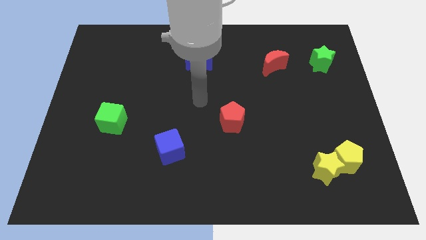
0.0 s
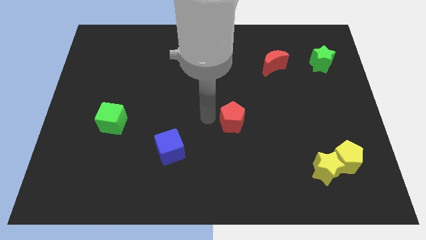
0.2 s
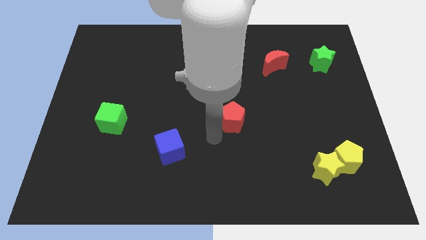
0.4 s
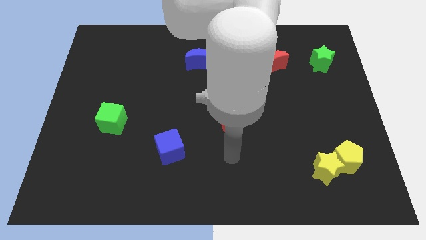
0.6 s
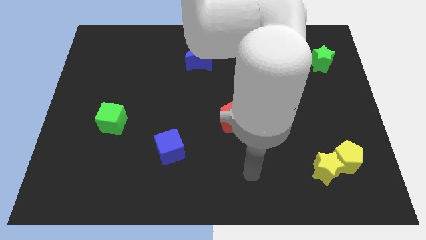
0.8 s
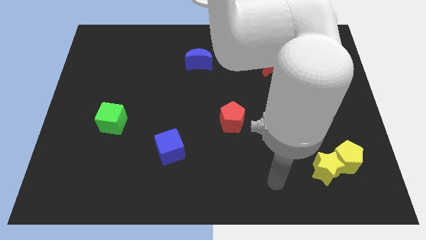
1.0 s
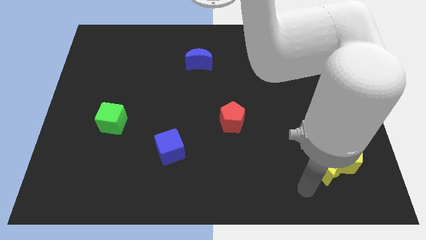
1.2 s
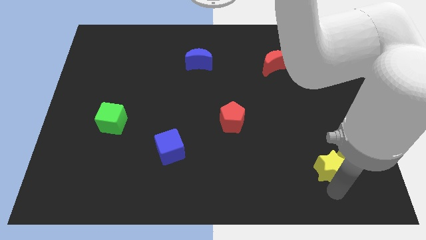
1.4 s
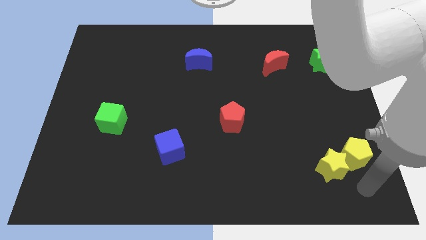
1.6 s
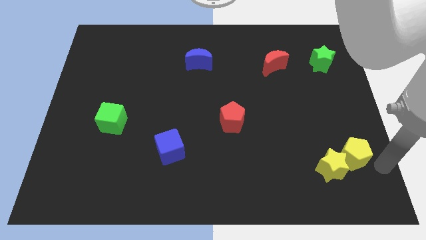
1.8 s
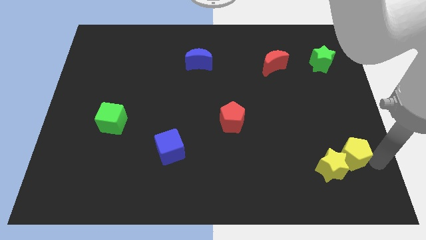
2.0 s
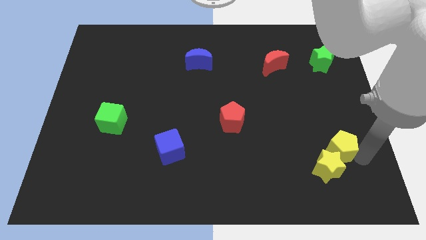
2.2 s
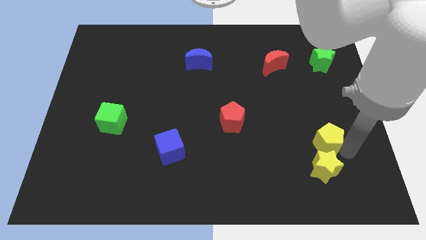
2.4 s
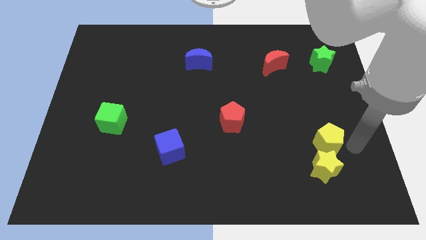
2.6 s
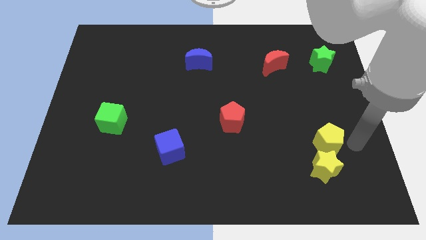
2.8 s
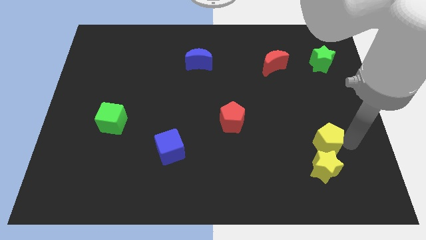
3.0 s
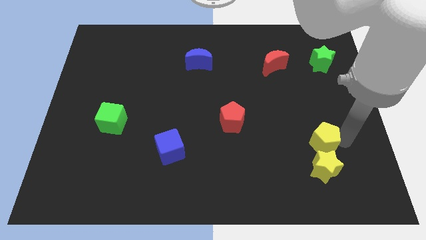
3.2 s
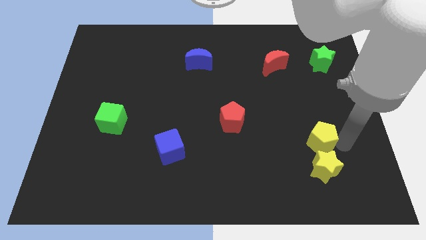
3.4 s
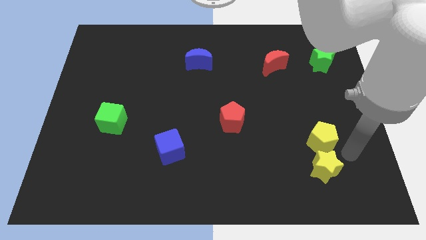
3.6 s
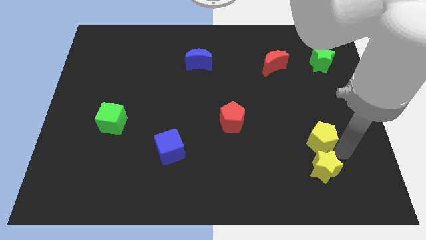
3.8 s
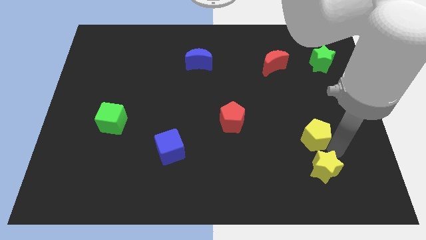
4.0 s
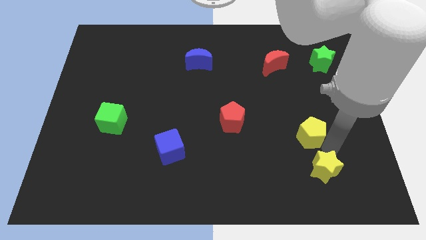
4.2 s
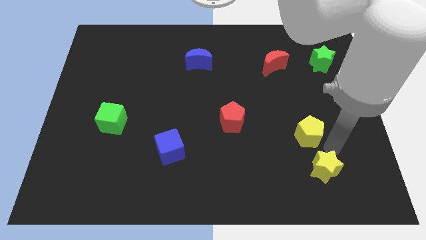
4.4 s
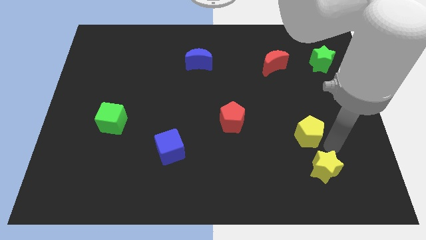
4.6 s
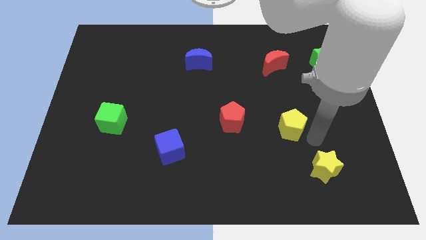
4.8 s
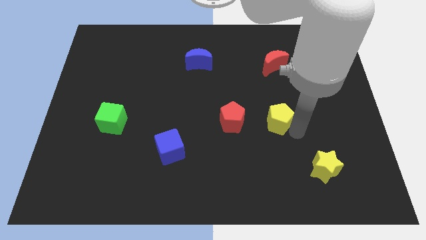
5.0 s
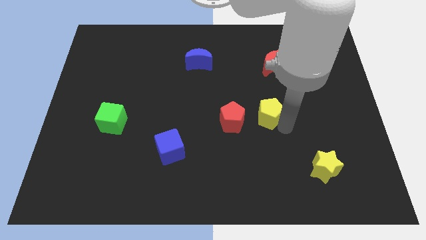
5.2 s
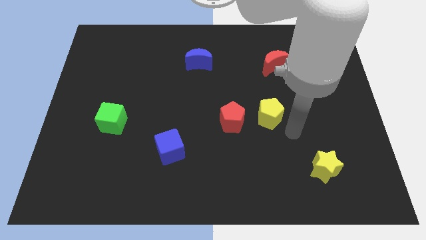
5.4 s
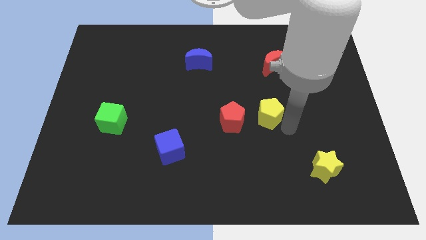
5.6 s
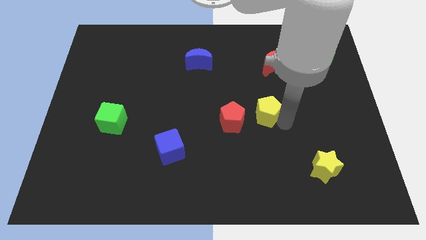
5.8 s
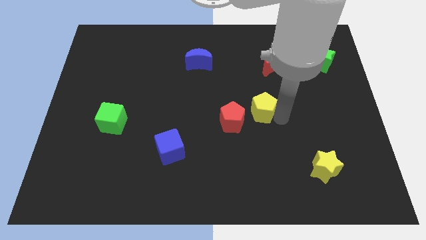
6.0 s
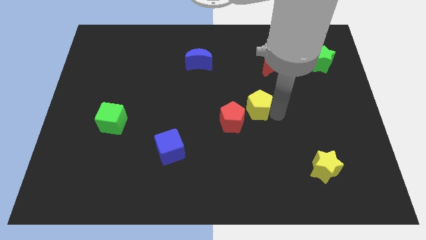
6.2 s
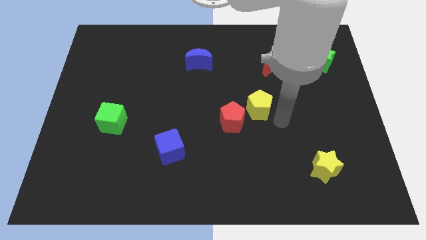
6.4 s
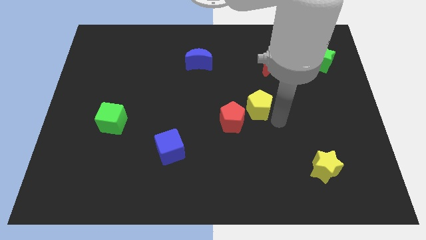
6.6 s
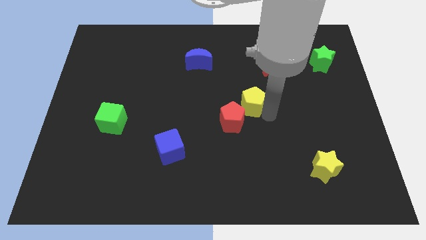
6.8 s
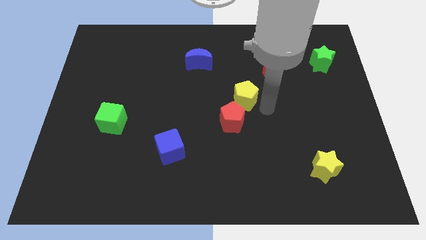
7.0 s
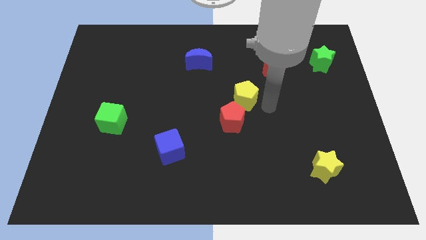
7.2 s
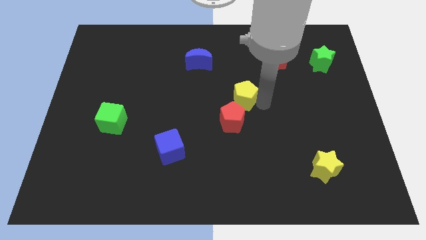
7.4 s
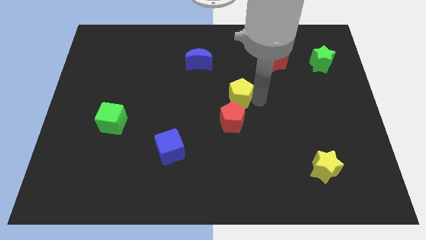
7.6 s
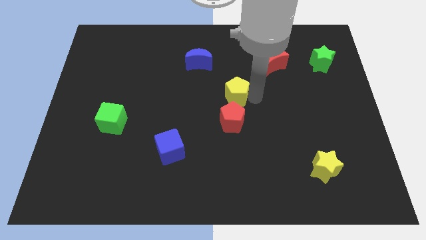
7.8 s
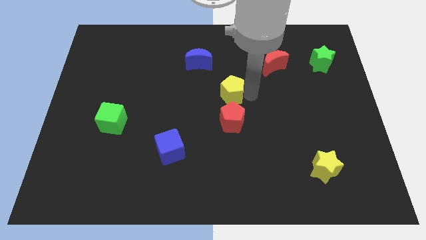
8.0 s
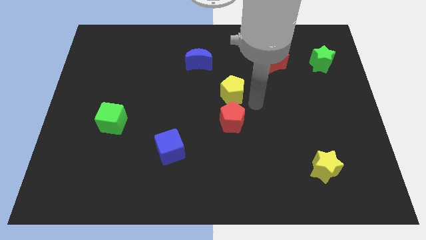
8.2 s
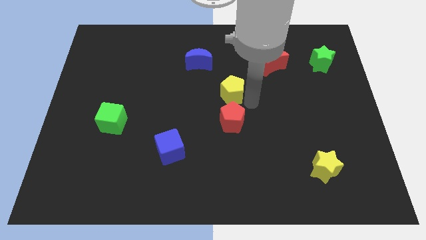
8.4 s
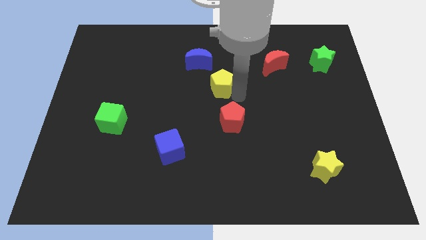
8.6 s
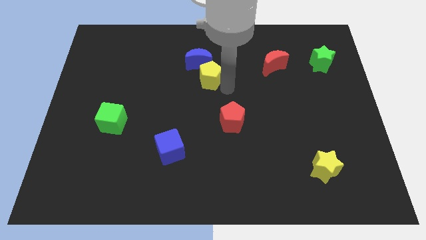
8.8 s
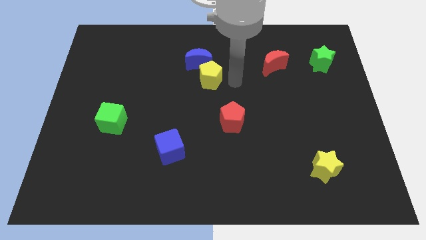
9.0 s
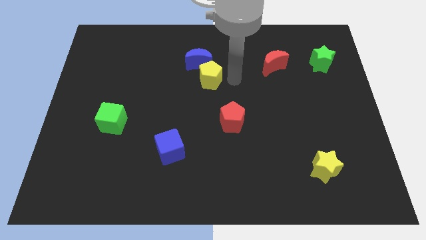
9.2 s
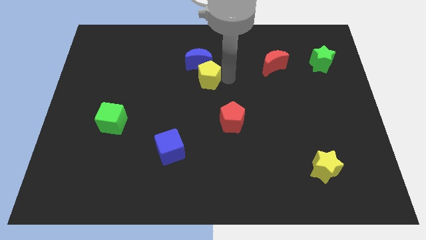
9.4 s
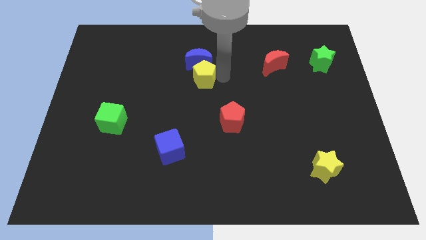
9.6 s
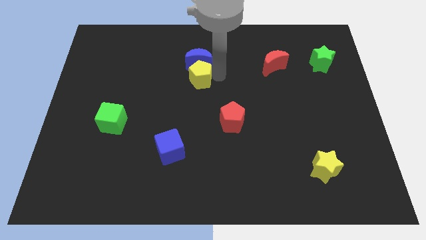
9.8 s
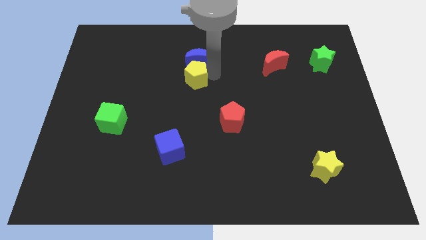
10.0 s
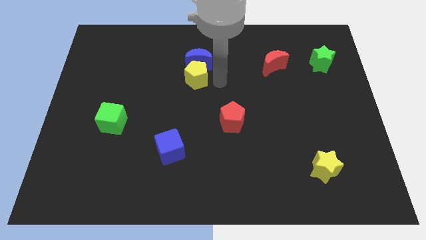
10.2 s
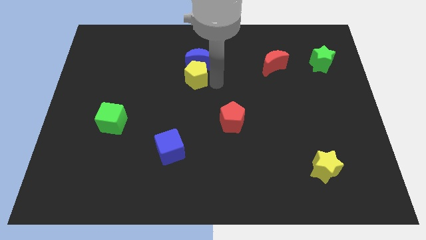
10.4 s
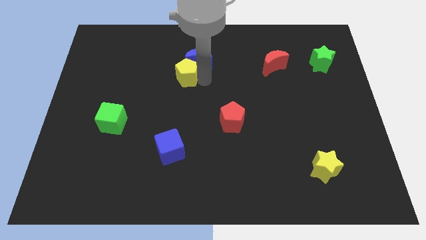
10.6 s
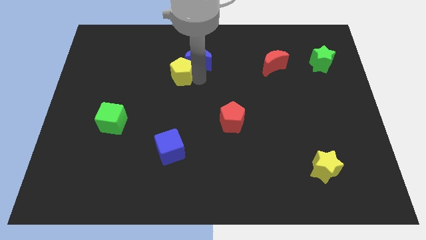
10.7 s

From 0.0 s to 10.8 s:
move the yellow pentagon left of the blue moon

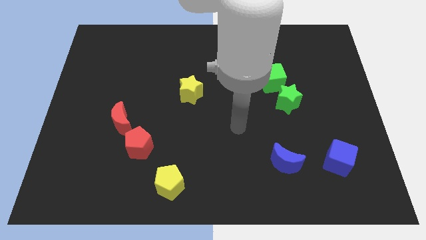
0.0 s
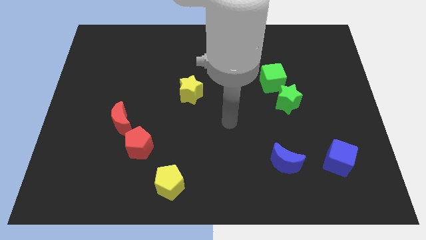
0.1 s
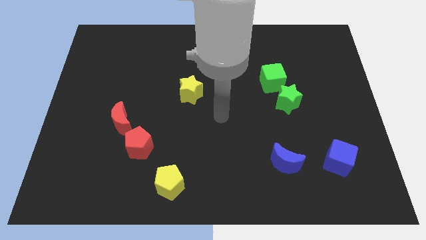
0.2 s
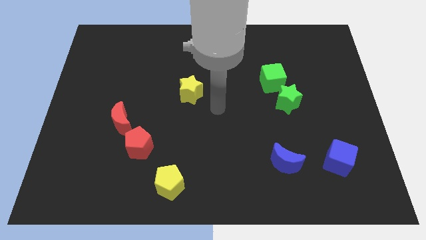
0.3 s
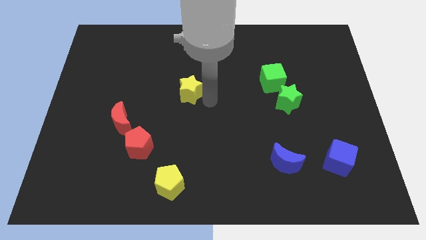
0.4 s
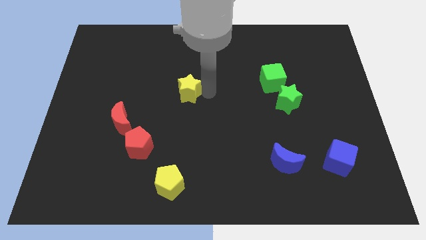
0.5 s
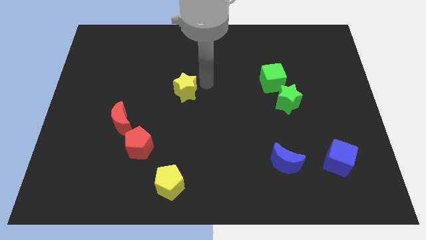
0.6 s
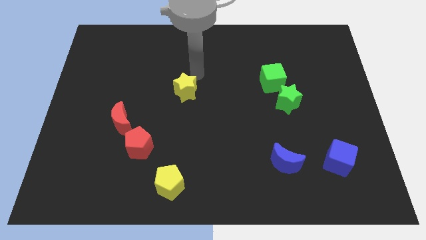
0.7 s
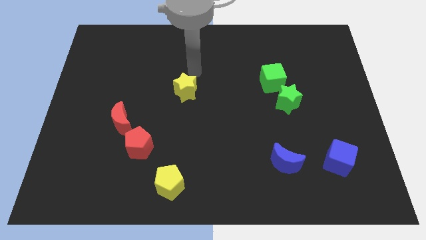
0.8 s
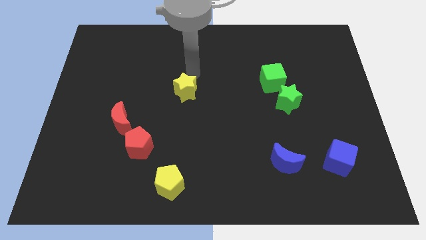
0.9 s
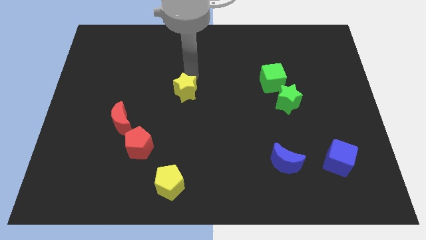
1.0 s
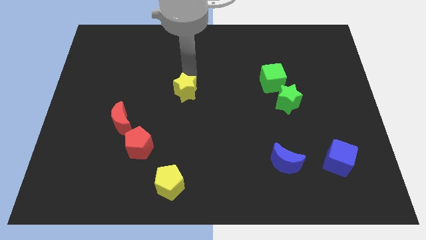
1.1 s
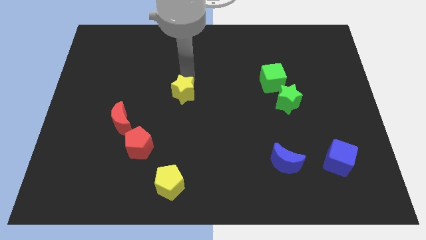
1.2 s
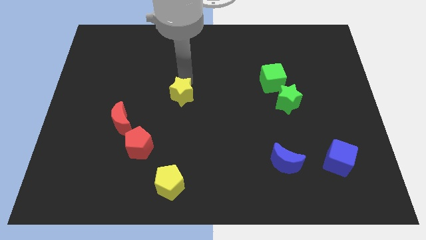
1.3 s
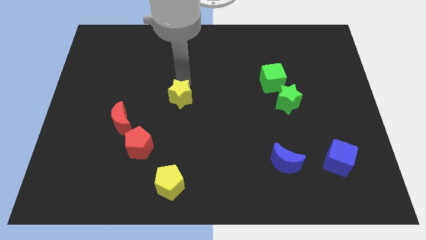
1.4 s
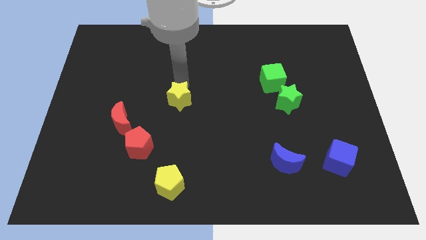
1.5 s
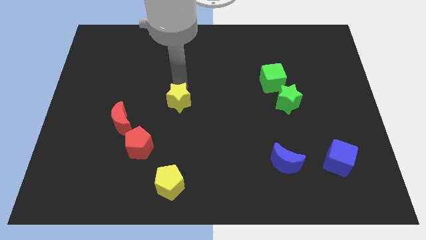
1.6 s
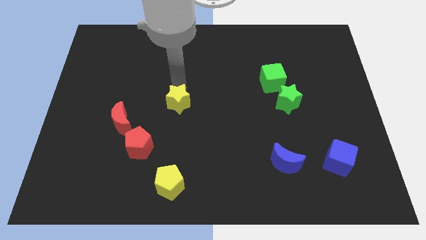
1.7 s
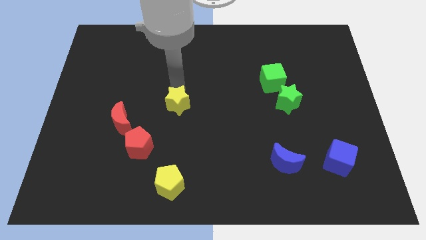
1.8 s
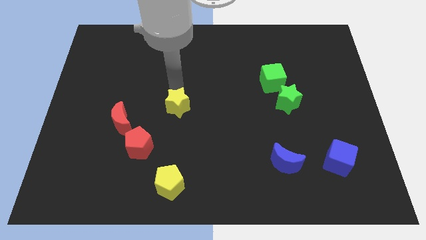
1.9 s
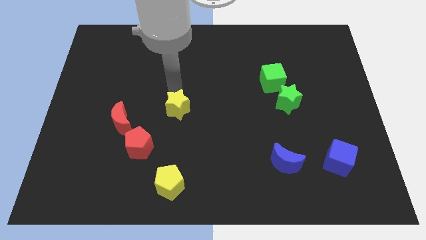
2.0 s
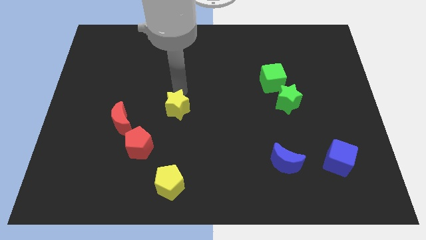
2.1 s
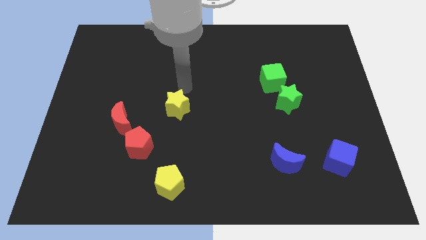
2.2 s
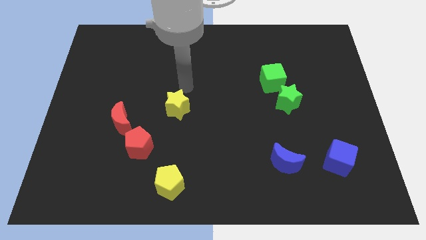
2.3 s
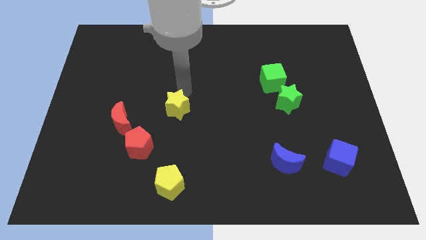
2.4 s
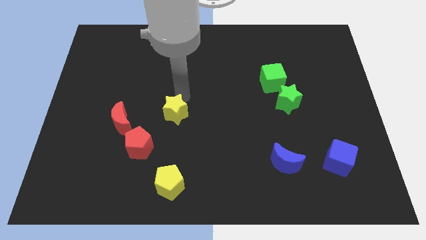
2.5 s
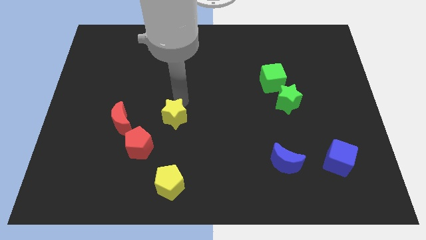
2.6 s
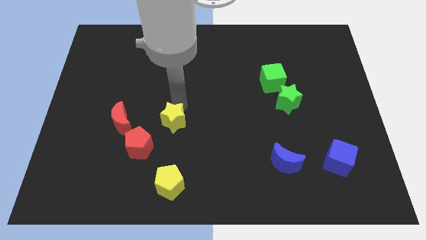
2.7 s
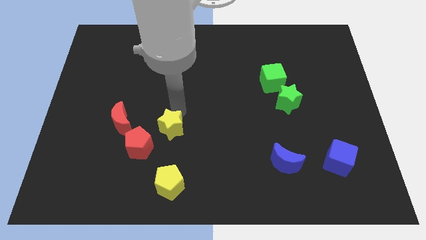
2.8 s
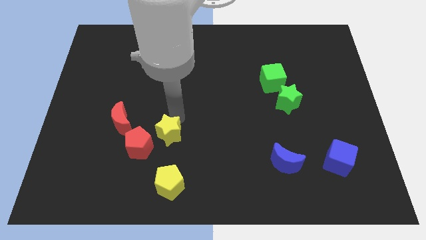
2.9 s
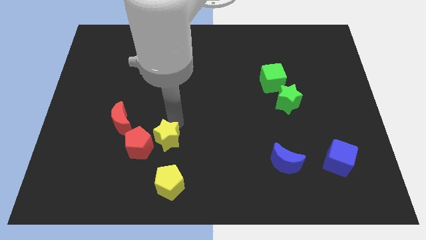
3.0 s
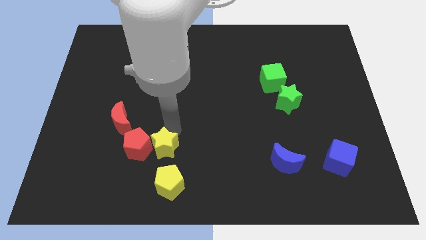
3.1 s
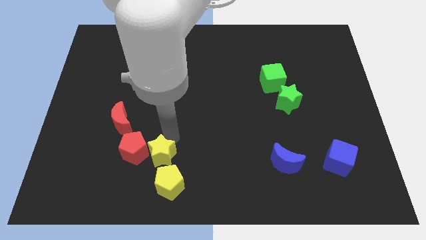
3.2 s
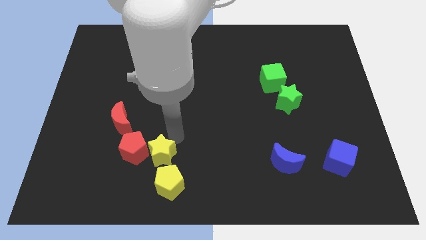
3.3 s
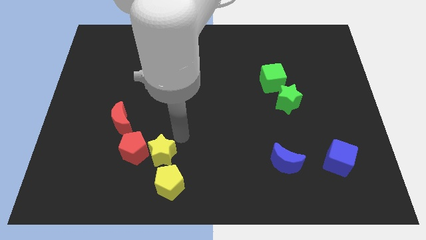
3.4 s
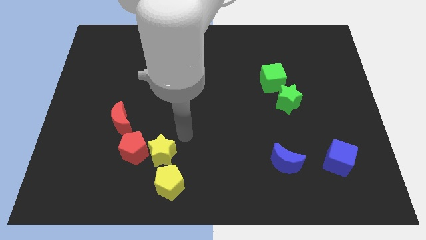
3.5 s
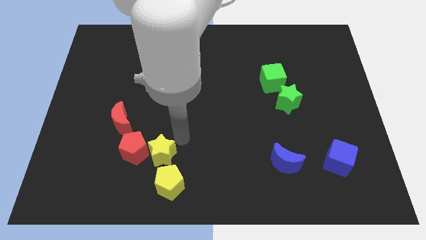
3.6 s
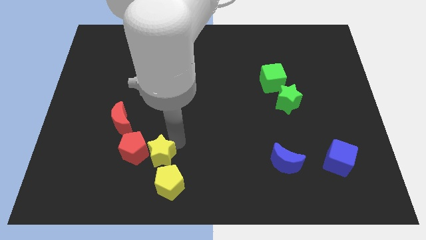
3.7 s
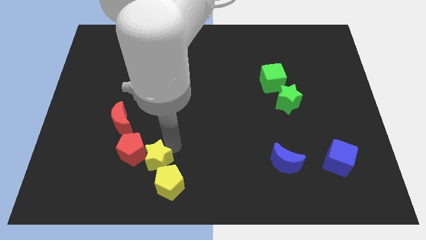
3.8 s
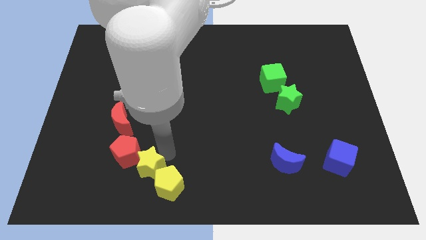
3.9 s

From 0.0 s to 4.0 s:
push the yellow star to the left of the yellow pentagon
